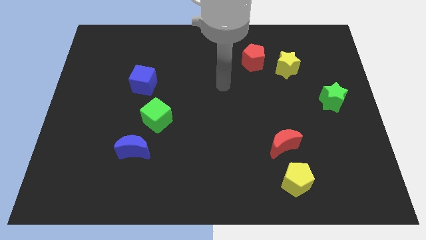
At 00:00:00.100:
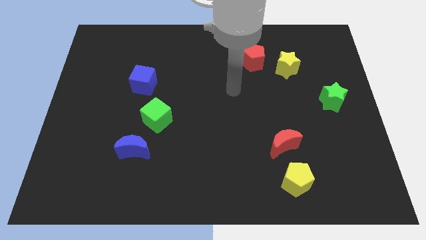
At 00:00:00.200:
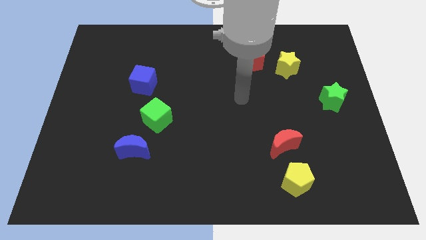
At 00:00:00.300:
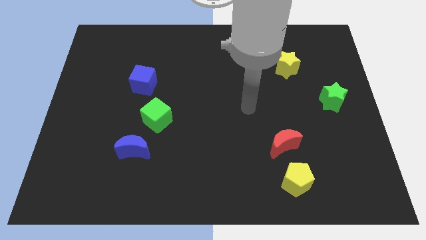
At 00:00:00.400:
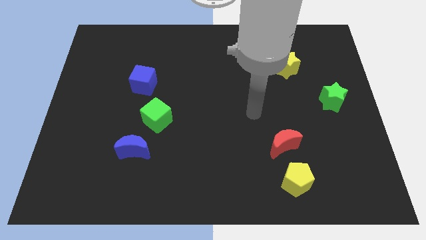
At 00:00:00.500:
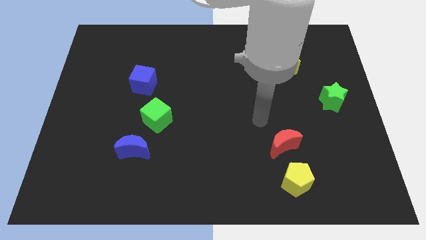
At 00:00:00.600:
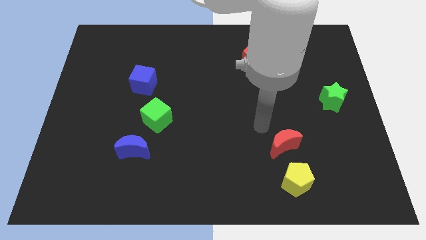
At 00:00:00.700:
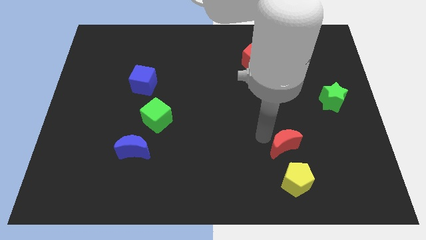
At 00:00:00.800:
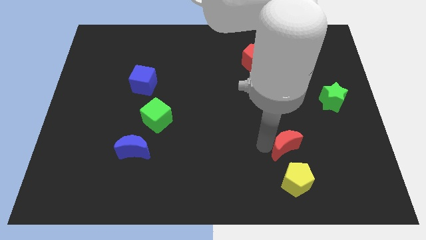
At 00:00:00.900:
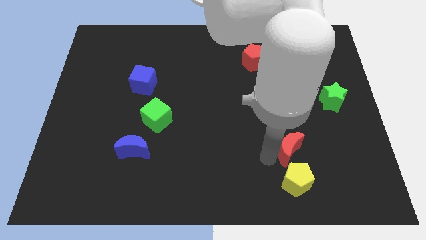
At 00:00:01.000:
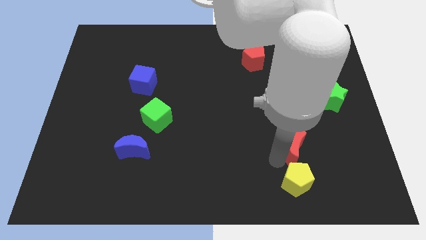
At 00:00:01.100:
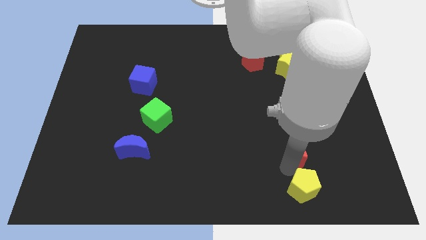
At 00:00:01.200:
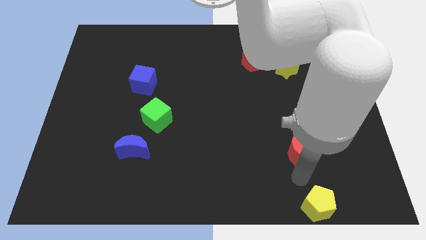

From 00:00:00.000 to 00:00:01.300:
separate the red moon from the yellow pentagon

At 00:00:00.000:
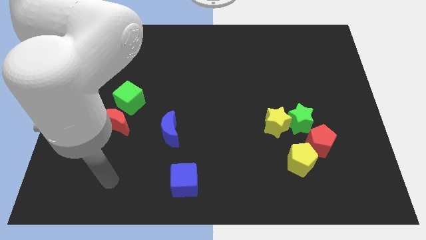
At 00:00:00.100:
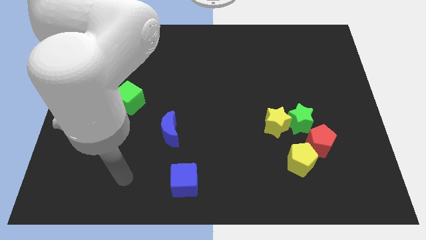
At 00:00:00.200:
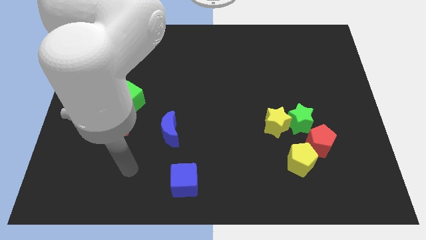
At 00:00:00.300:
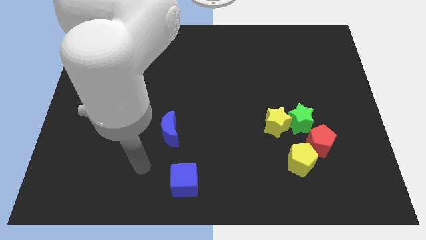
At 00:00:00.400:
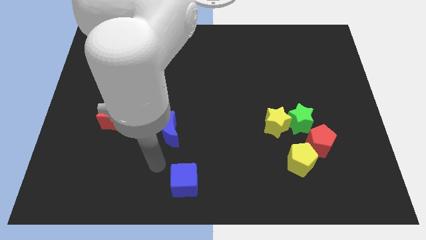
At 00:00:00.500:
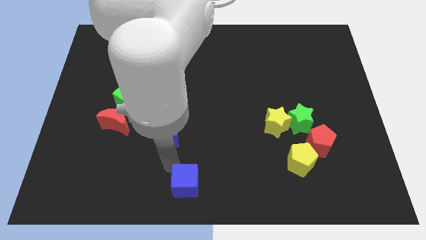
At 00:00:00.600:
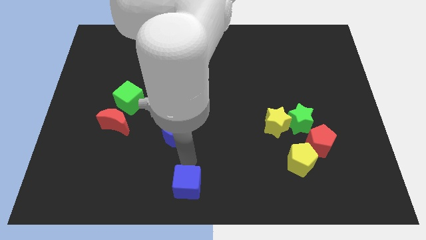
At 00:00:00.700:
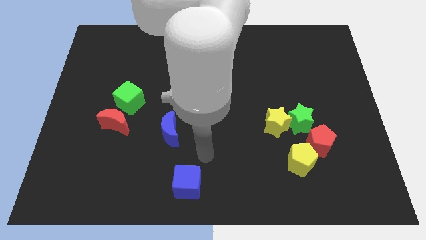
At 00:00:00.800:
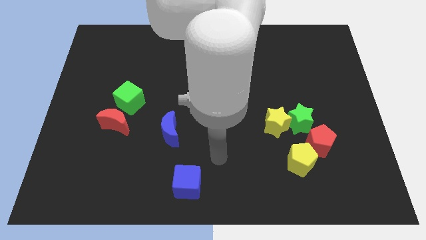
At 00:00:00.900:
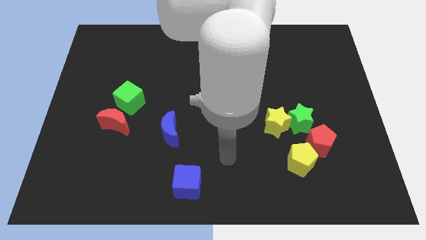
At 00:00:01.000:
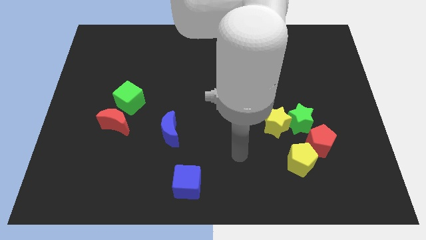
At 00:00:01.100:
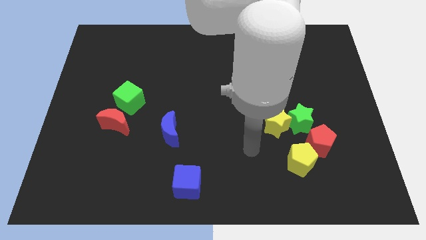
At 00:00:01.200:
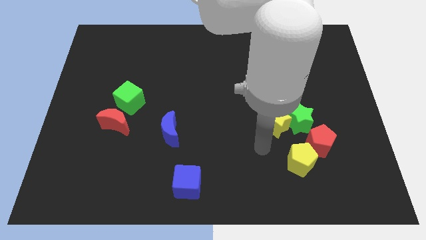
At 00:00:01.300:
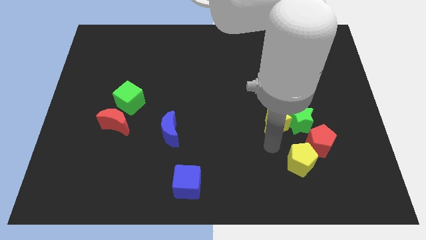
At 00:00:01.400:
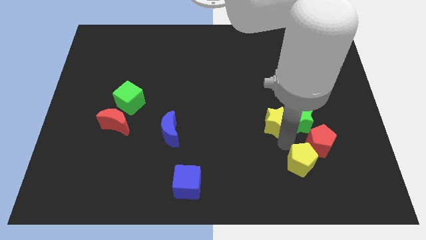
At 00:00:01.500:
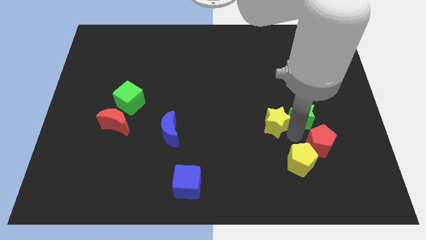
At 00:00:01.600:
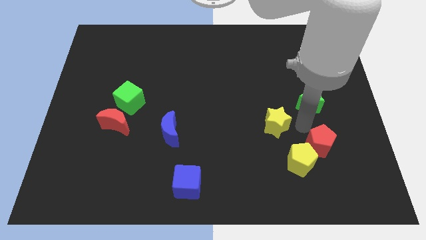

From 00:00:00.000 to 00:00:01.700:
pull the yellow star apart from the green star

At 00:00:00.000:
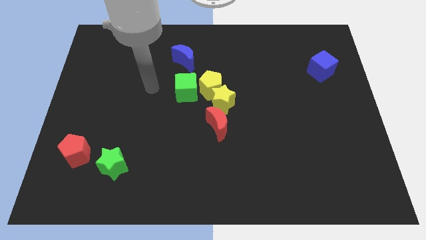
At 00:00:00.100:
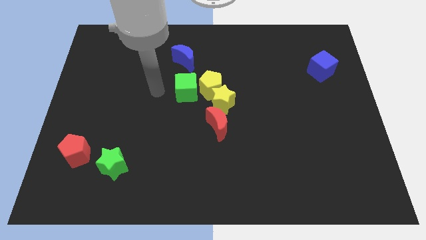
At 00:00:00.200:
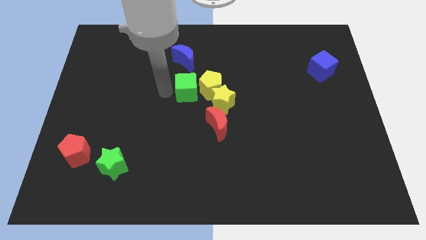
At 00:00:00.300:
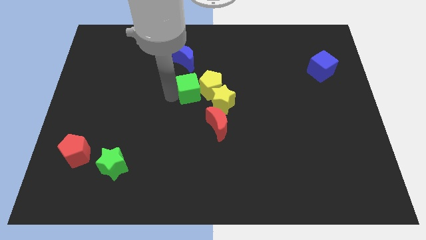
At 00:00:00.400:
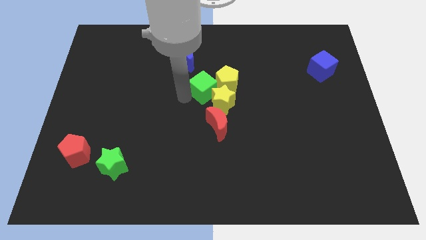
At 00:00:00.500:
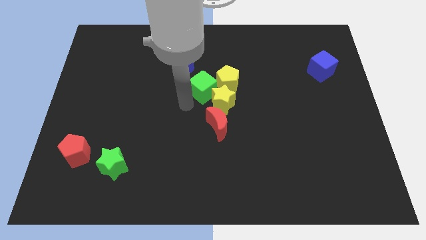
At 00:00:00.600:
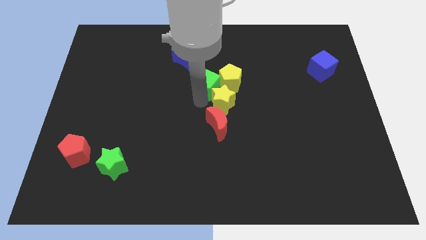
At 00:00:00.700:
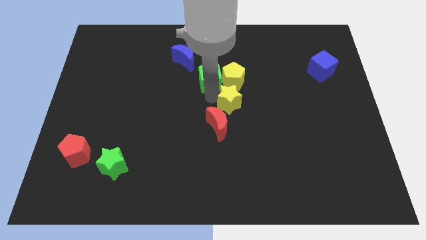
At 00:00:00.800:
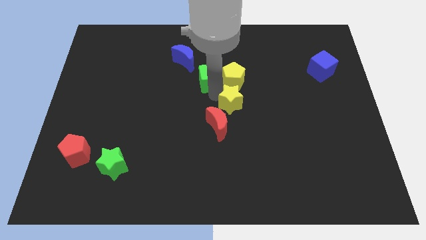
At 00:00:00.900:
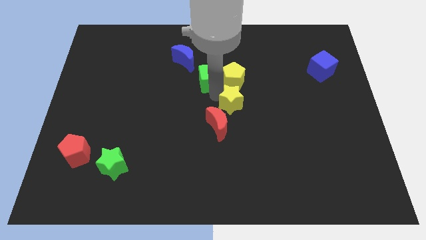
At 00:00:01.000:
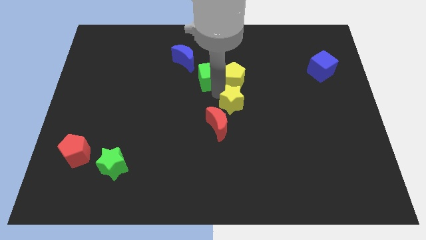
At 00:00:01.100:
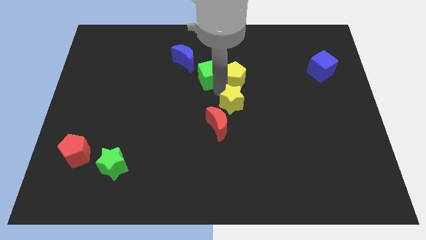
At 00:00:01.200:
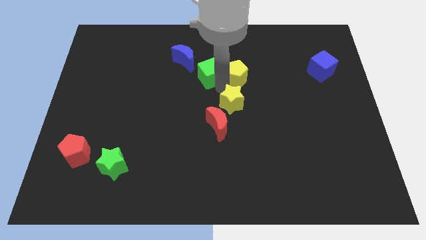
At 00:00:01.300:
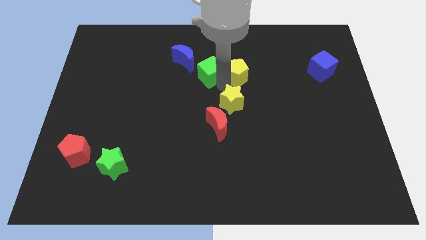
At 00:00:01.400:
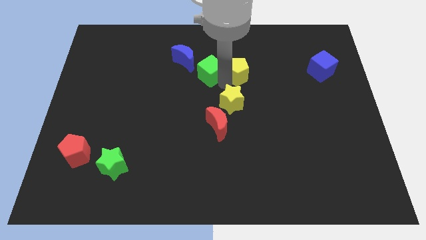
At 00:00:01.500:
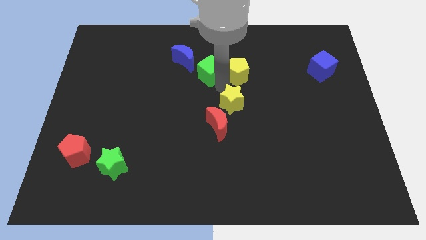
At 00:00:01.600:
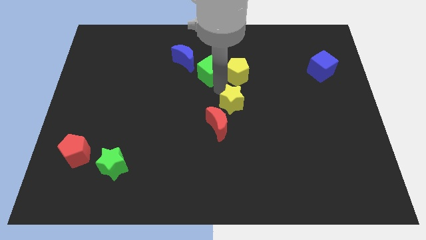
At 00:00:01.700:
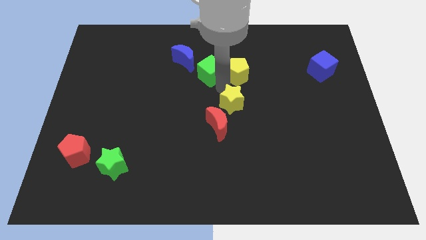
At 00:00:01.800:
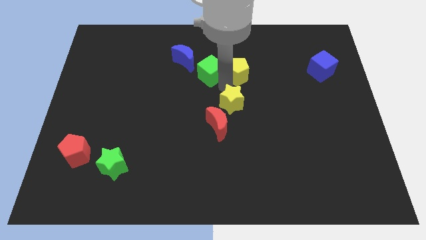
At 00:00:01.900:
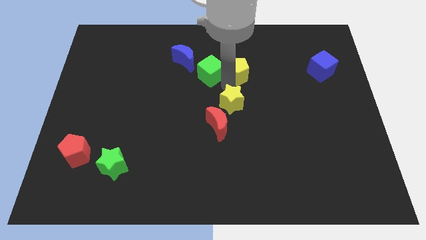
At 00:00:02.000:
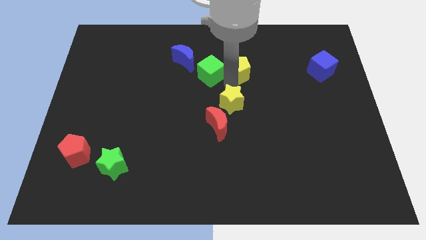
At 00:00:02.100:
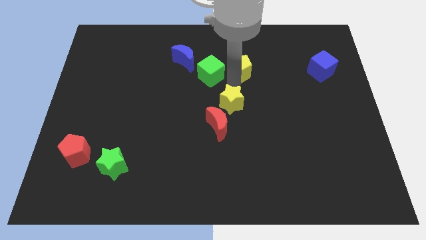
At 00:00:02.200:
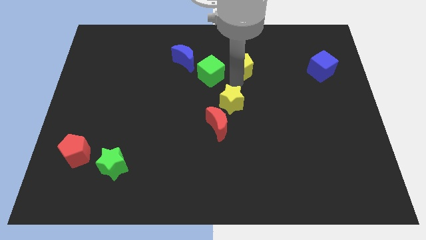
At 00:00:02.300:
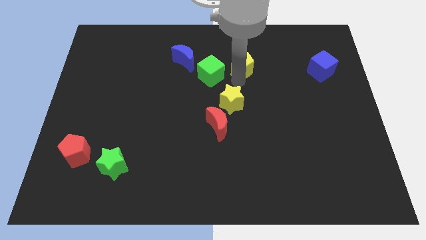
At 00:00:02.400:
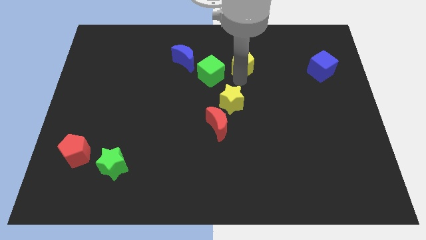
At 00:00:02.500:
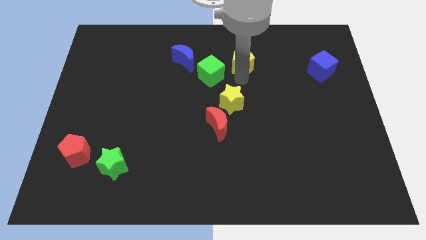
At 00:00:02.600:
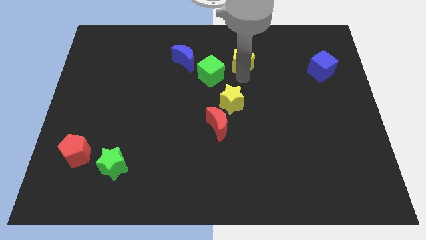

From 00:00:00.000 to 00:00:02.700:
separate the yellow pentagon from the yellow star and green cube

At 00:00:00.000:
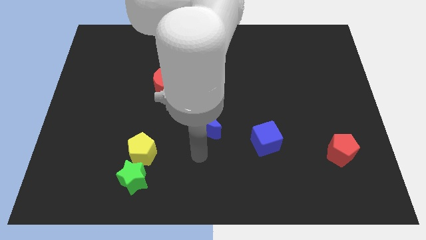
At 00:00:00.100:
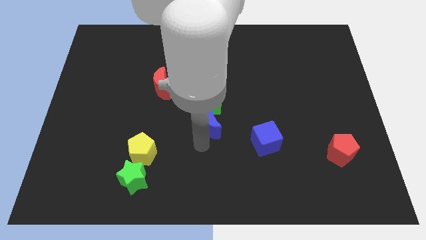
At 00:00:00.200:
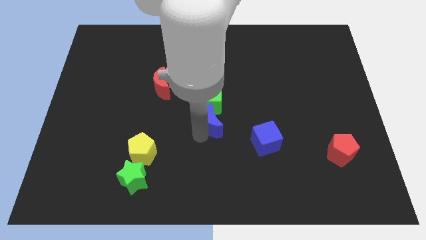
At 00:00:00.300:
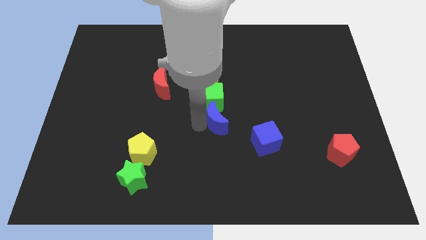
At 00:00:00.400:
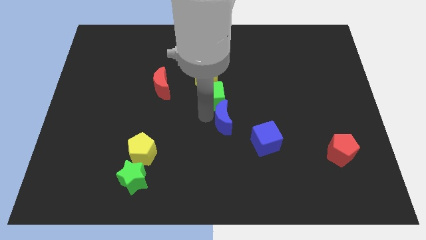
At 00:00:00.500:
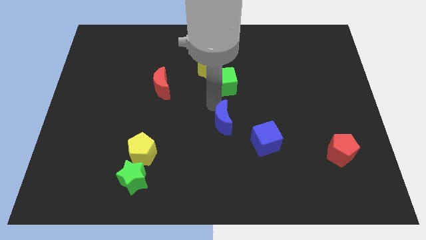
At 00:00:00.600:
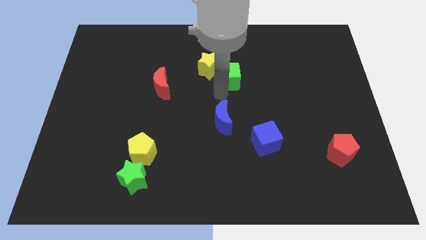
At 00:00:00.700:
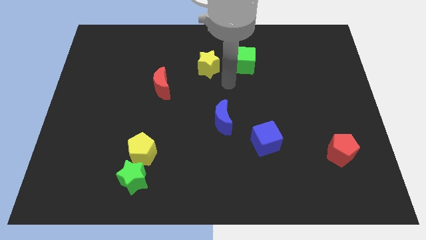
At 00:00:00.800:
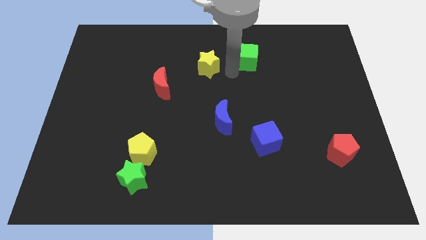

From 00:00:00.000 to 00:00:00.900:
separate the yellow star from the green cube

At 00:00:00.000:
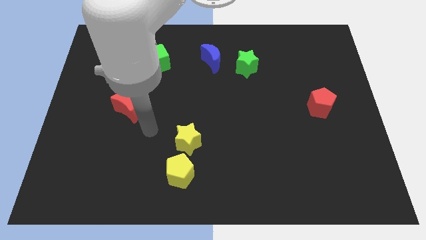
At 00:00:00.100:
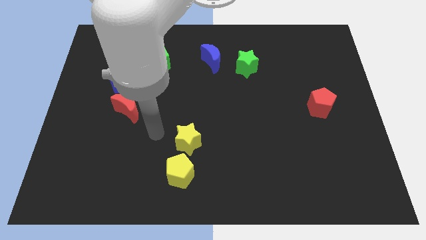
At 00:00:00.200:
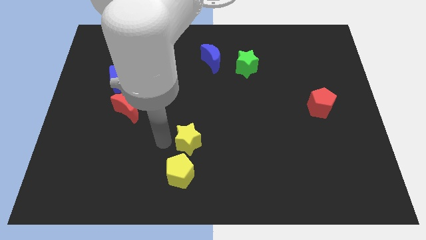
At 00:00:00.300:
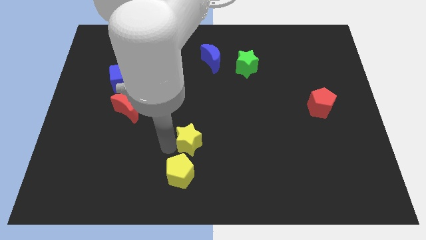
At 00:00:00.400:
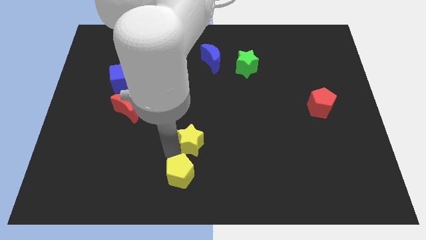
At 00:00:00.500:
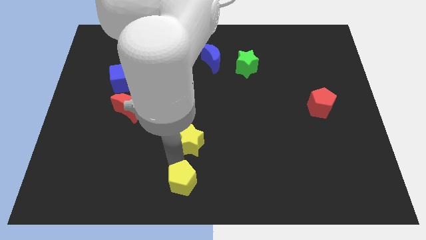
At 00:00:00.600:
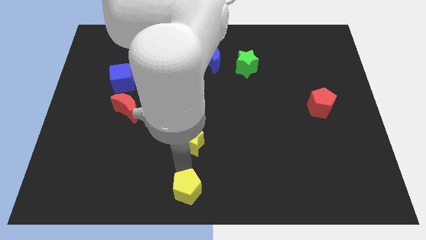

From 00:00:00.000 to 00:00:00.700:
move the yellow star away from the yellow pentagon

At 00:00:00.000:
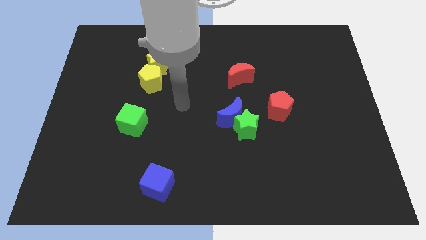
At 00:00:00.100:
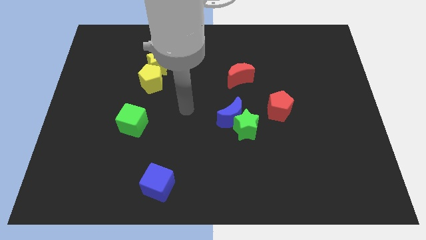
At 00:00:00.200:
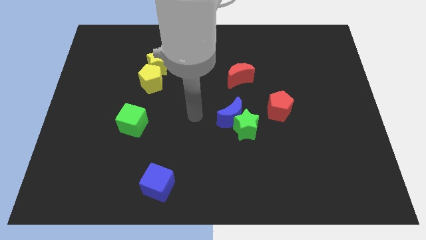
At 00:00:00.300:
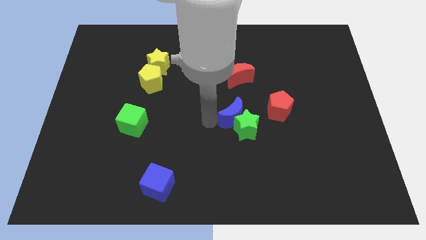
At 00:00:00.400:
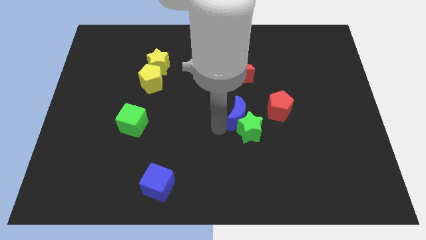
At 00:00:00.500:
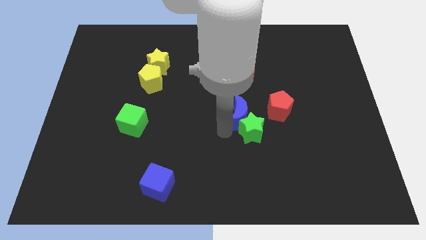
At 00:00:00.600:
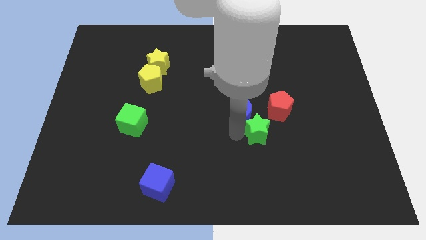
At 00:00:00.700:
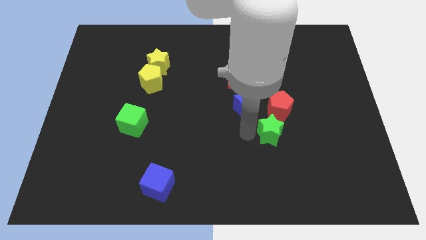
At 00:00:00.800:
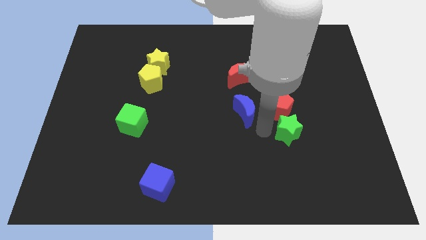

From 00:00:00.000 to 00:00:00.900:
pull the blue moon apart from the green star

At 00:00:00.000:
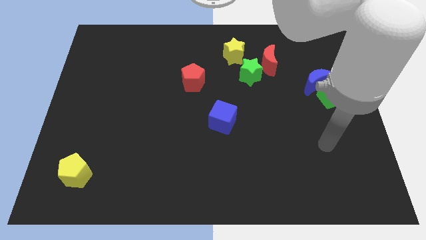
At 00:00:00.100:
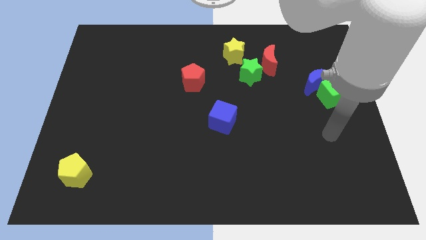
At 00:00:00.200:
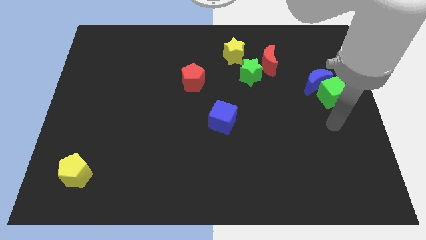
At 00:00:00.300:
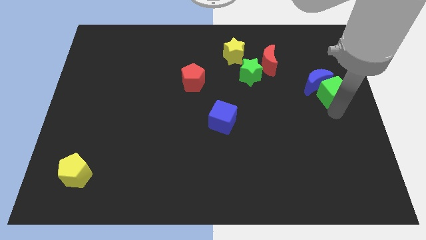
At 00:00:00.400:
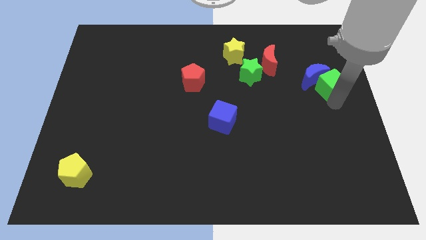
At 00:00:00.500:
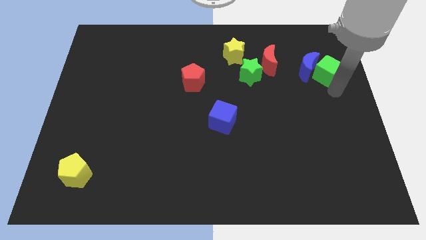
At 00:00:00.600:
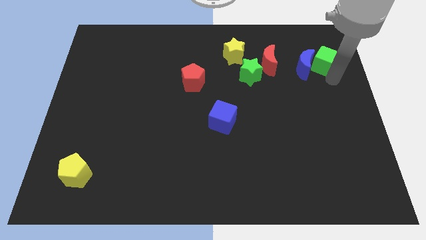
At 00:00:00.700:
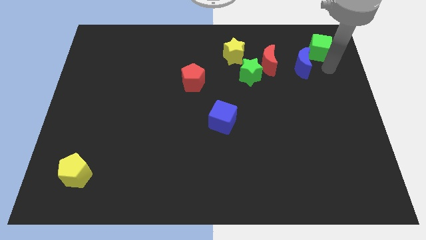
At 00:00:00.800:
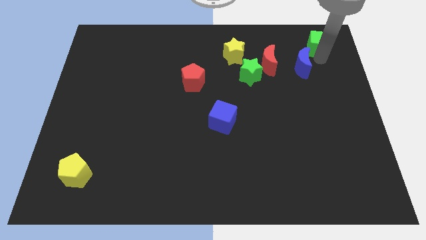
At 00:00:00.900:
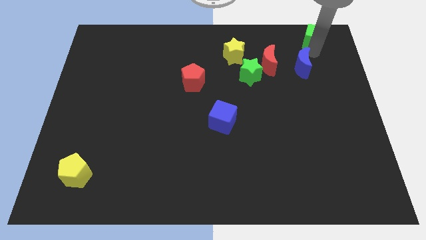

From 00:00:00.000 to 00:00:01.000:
move the blue moon away from the green cube
